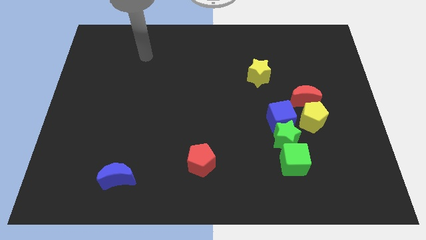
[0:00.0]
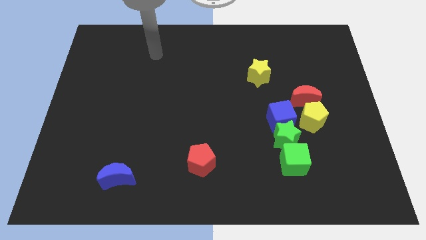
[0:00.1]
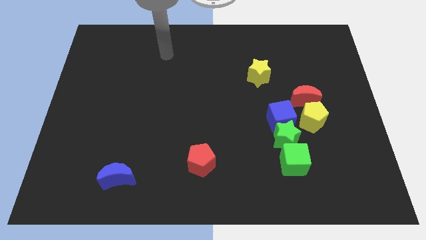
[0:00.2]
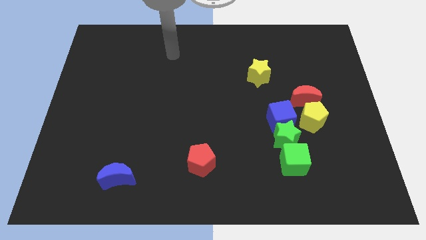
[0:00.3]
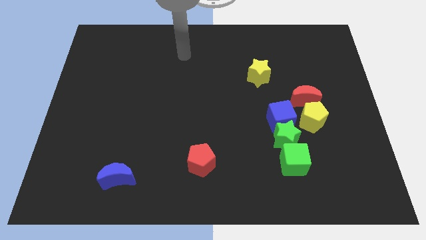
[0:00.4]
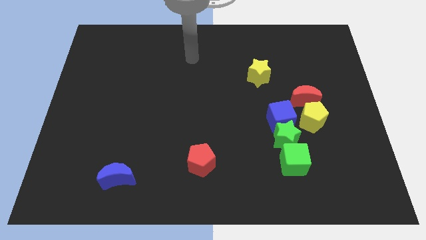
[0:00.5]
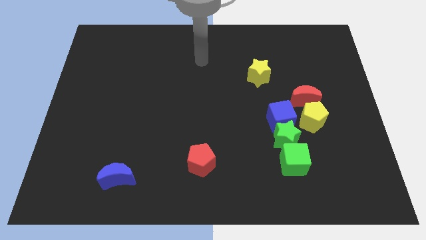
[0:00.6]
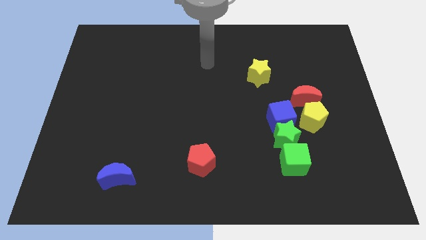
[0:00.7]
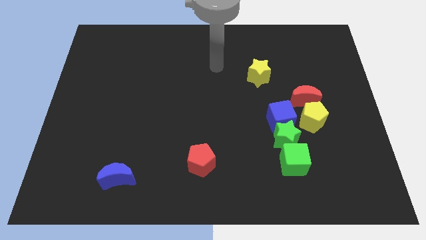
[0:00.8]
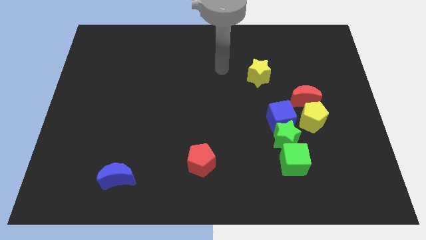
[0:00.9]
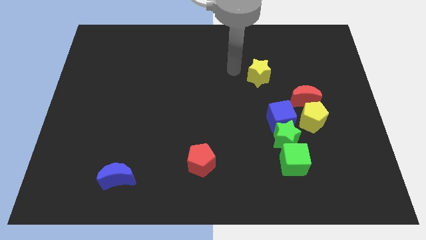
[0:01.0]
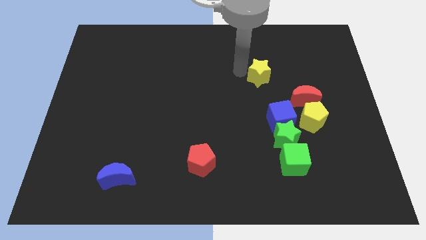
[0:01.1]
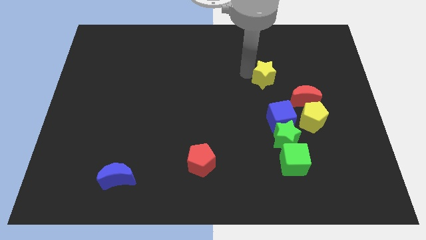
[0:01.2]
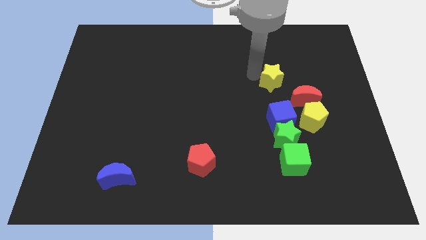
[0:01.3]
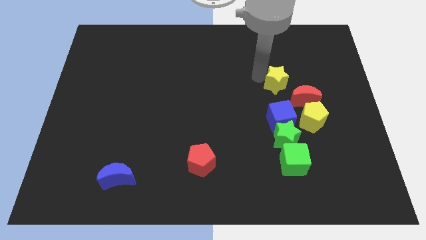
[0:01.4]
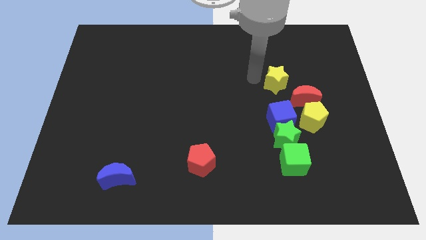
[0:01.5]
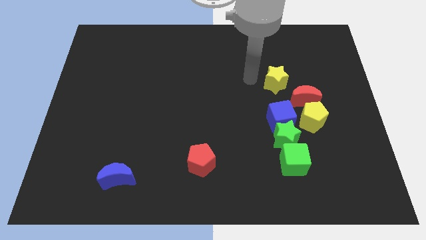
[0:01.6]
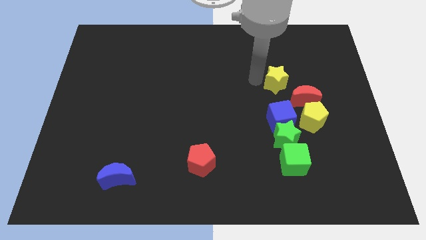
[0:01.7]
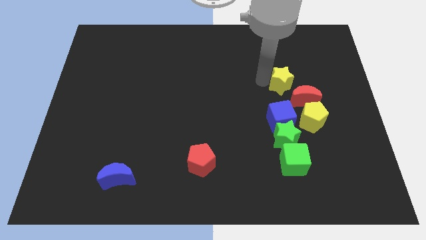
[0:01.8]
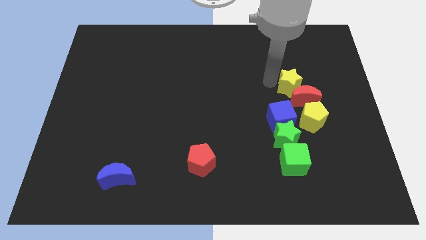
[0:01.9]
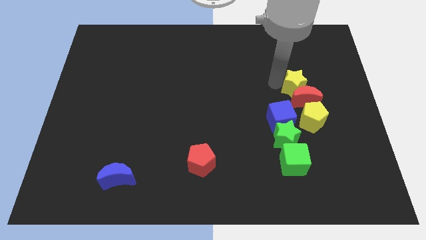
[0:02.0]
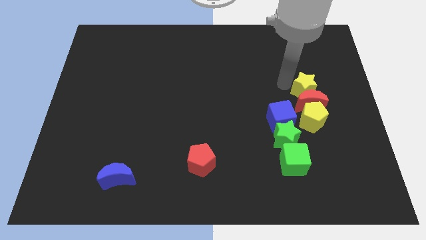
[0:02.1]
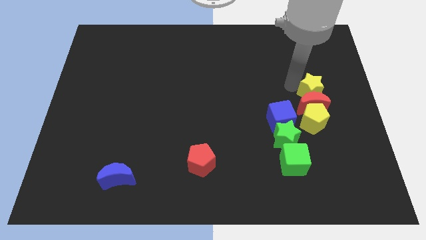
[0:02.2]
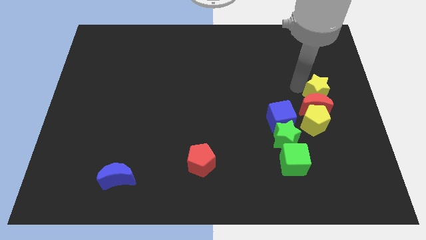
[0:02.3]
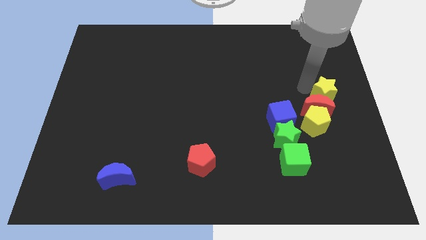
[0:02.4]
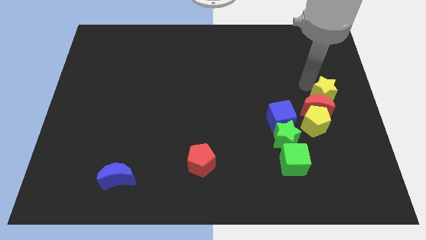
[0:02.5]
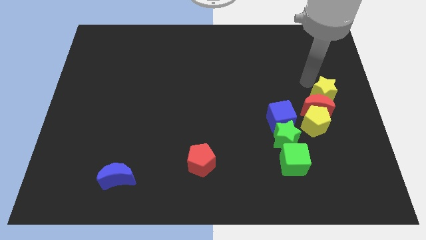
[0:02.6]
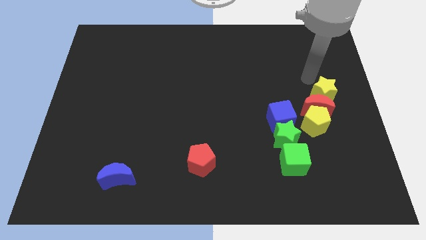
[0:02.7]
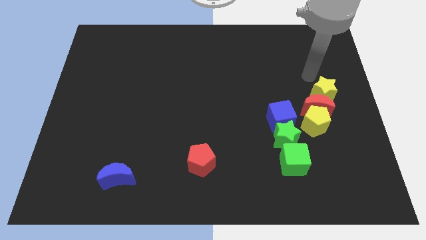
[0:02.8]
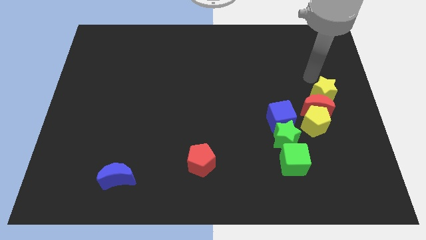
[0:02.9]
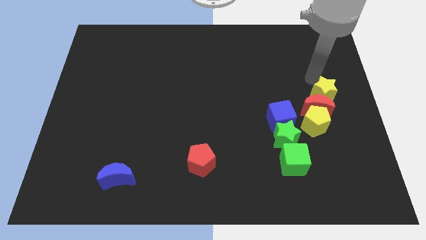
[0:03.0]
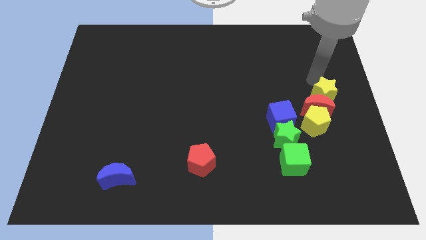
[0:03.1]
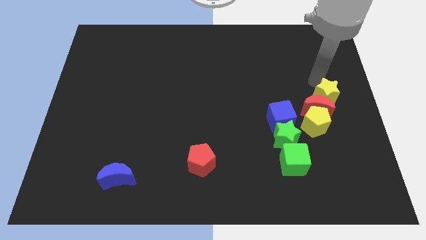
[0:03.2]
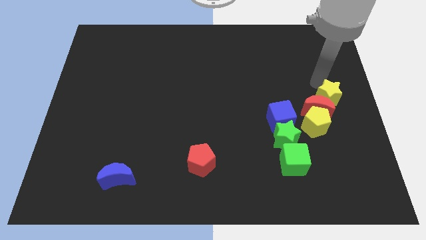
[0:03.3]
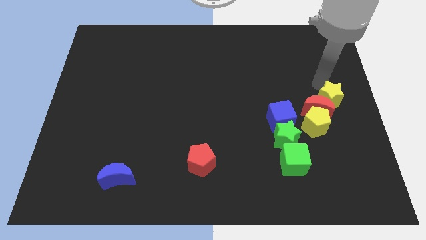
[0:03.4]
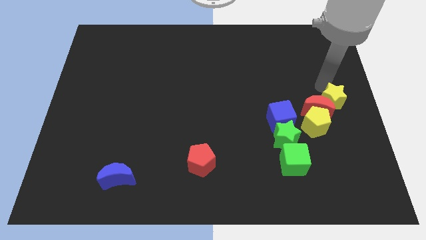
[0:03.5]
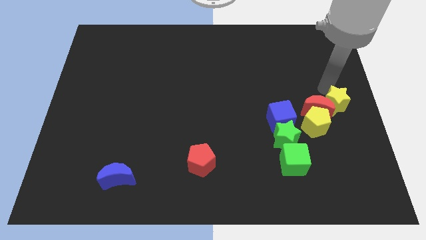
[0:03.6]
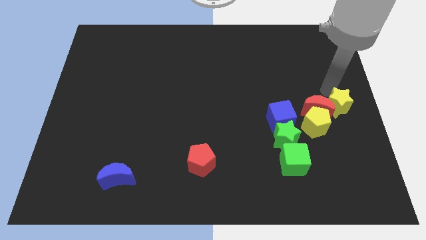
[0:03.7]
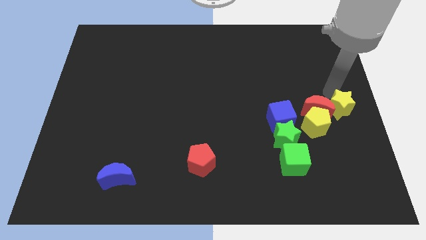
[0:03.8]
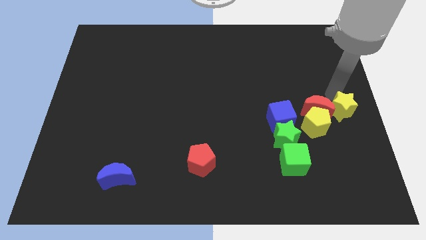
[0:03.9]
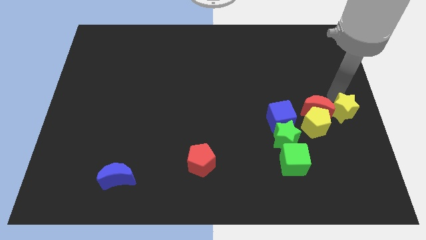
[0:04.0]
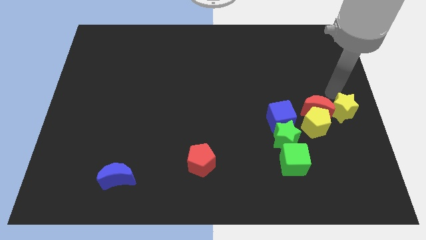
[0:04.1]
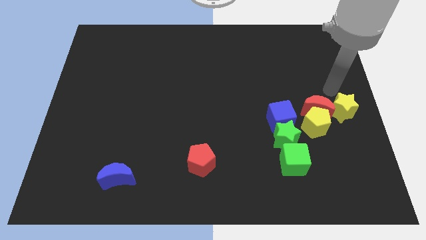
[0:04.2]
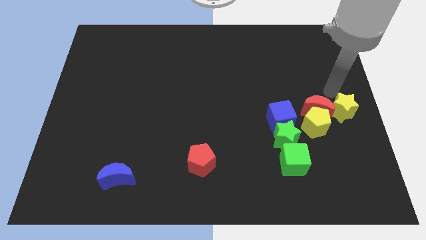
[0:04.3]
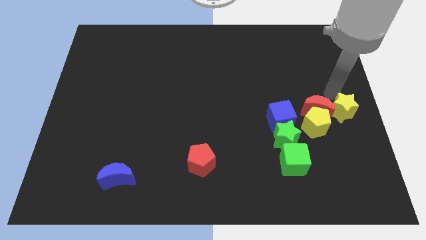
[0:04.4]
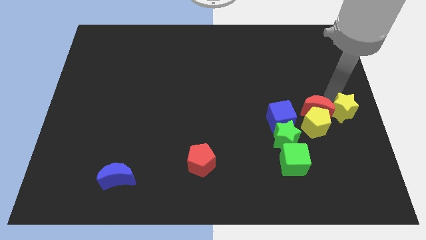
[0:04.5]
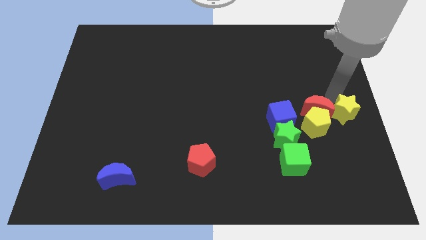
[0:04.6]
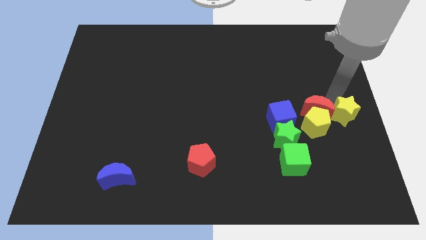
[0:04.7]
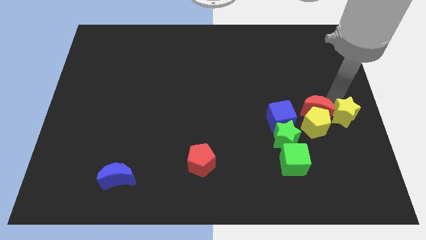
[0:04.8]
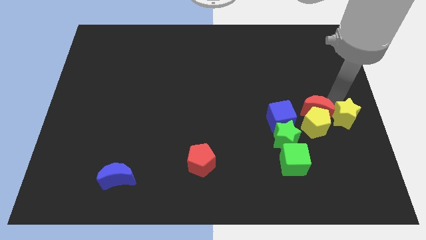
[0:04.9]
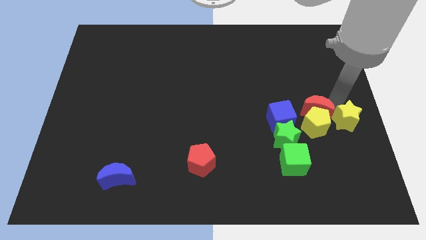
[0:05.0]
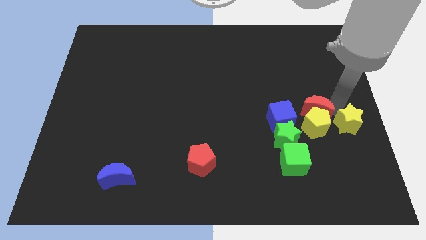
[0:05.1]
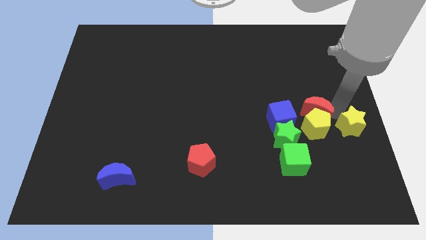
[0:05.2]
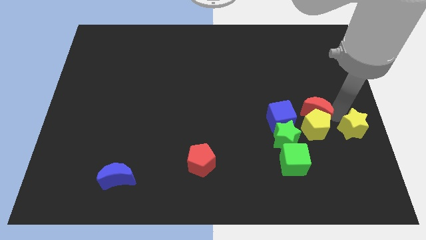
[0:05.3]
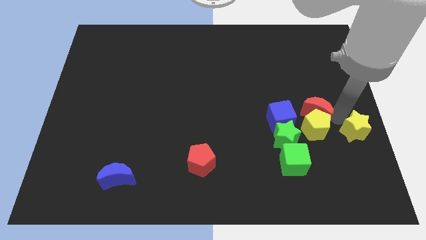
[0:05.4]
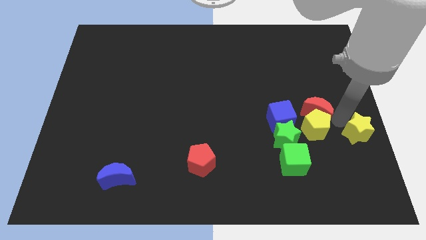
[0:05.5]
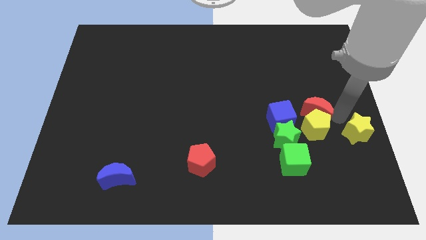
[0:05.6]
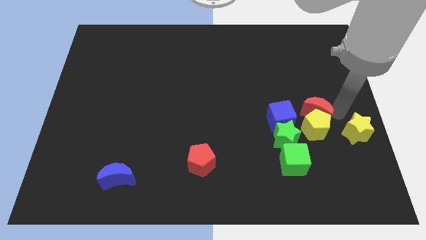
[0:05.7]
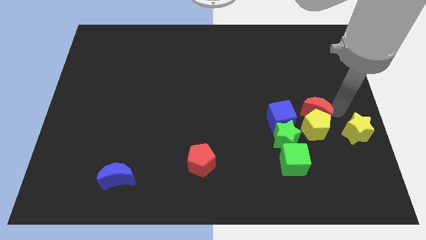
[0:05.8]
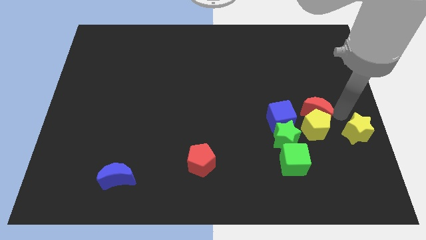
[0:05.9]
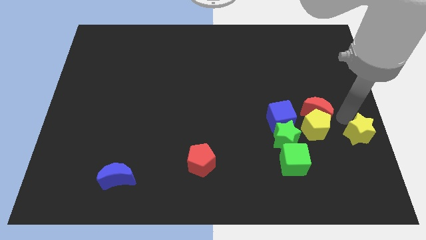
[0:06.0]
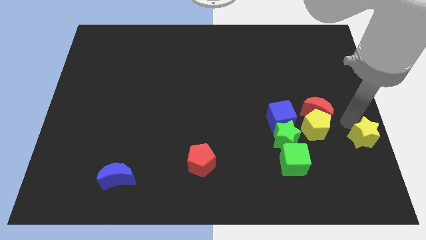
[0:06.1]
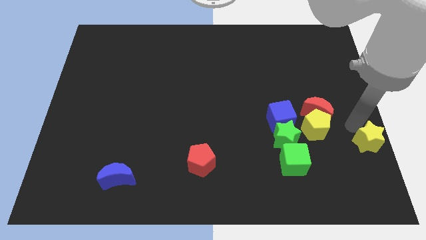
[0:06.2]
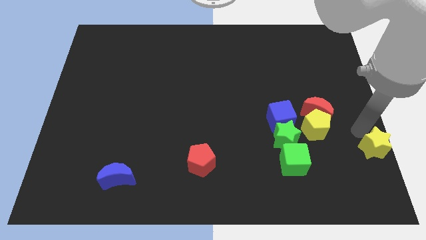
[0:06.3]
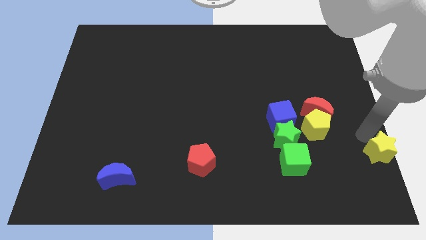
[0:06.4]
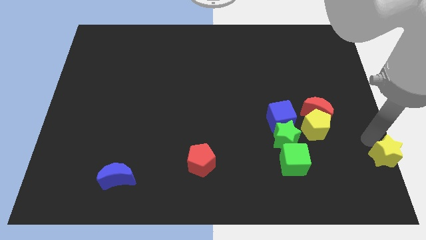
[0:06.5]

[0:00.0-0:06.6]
put the yellow star to the lower right corner
